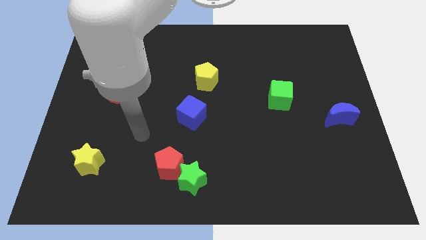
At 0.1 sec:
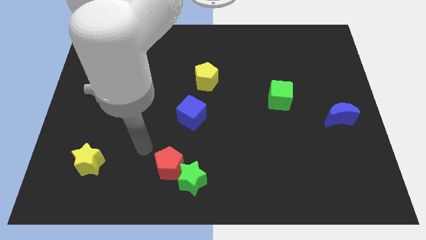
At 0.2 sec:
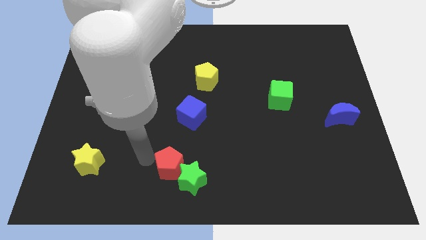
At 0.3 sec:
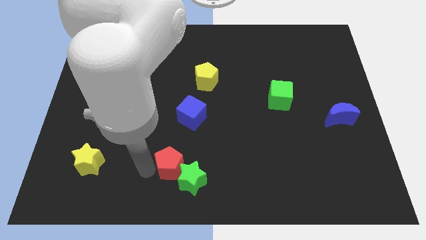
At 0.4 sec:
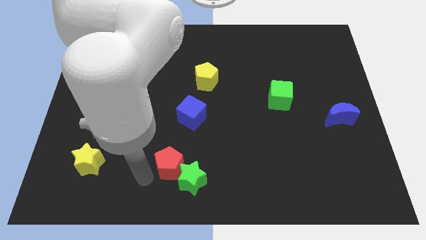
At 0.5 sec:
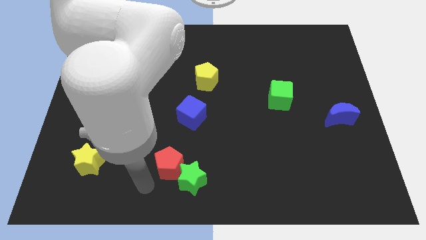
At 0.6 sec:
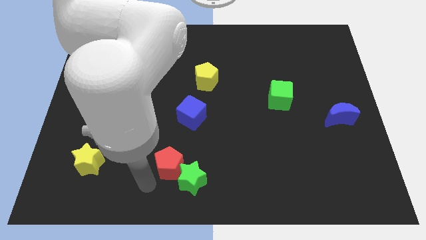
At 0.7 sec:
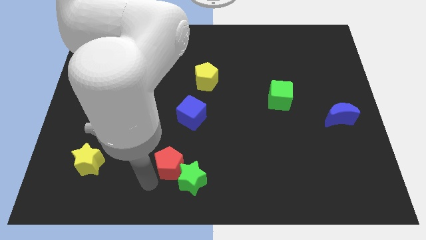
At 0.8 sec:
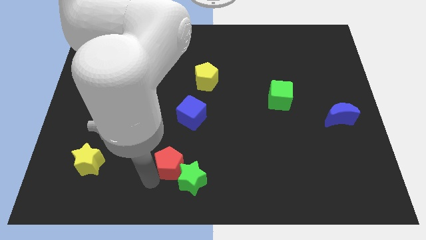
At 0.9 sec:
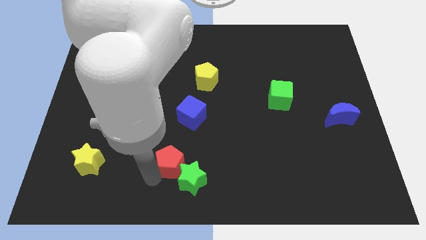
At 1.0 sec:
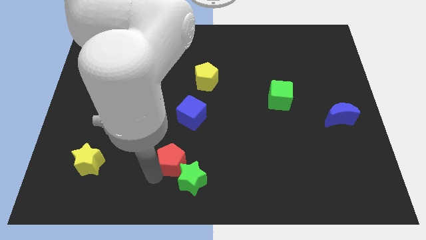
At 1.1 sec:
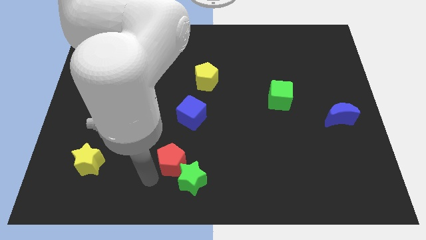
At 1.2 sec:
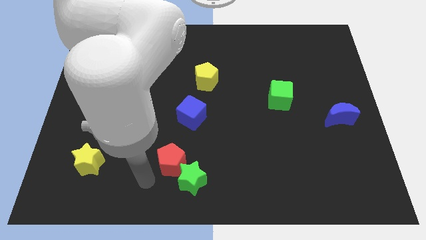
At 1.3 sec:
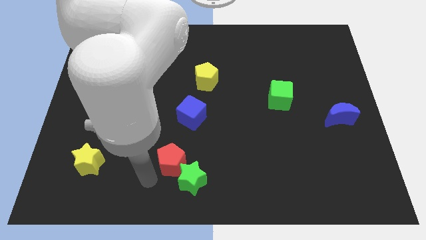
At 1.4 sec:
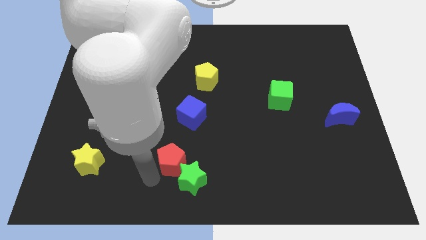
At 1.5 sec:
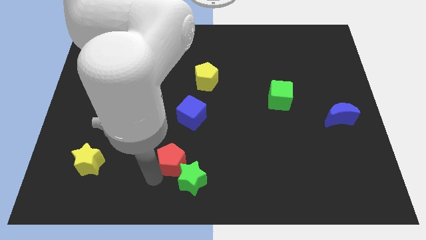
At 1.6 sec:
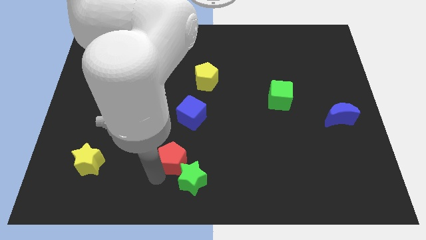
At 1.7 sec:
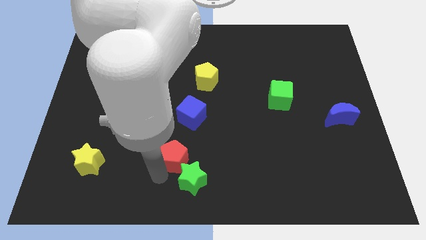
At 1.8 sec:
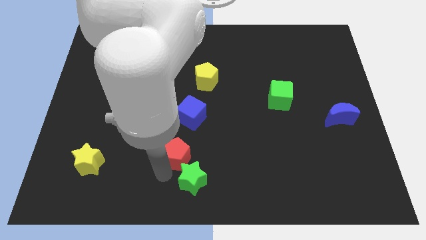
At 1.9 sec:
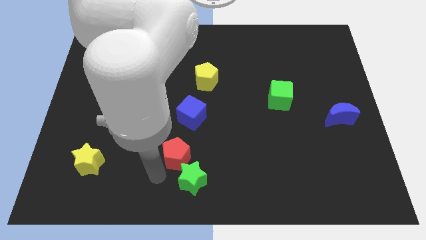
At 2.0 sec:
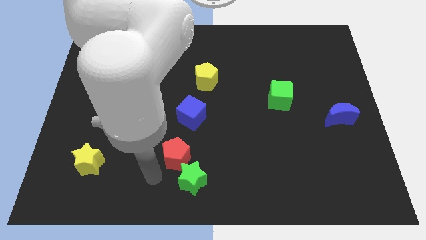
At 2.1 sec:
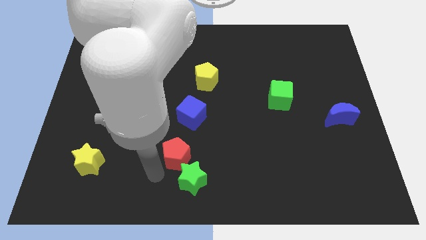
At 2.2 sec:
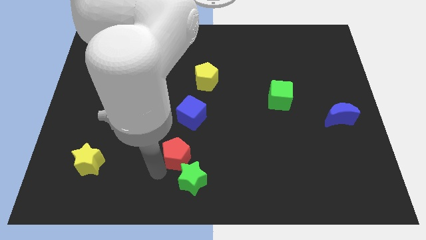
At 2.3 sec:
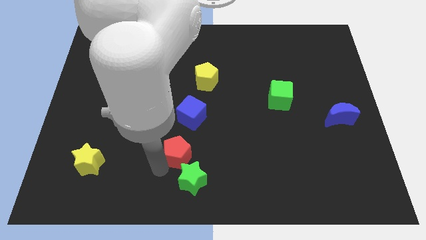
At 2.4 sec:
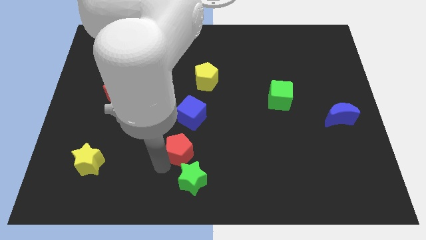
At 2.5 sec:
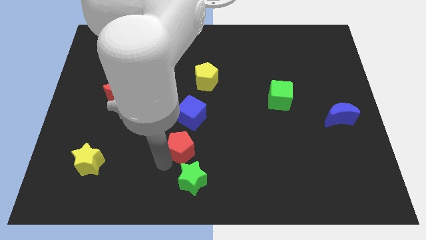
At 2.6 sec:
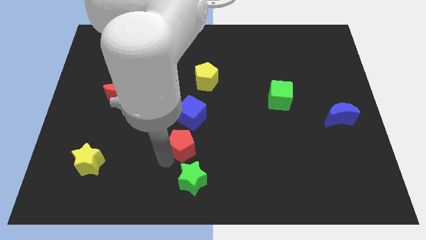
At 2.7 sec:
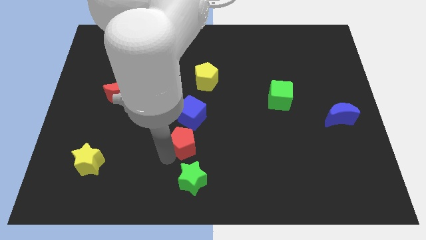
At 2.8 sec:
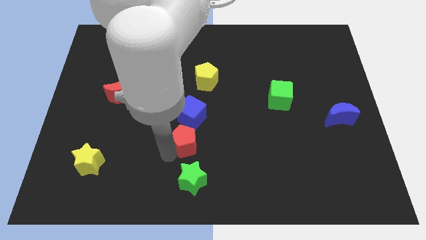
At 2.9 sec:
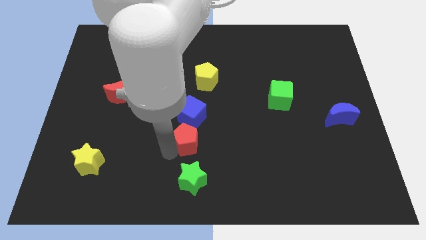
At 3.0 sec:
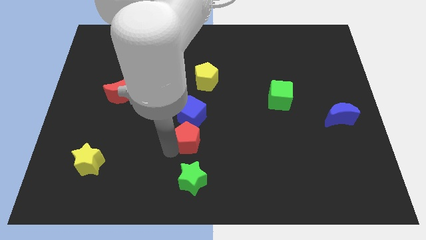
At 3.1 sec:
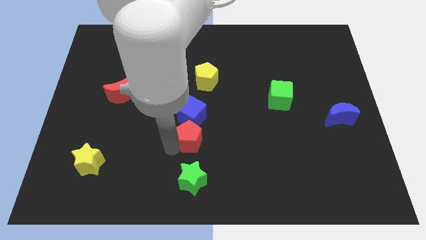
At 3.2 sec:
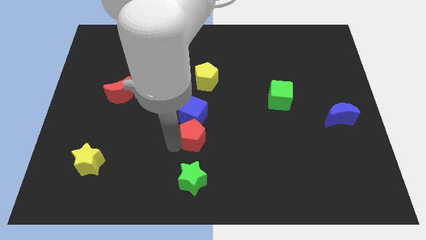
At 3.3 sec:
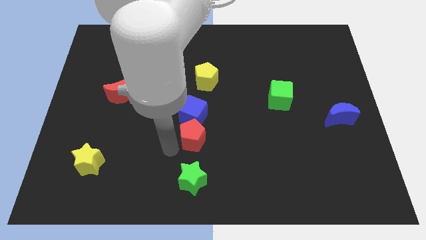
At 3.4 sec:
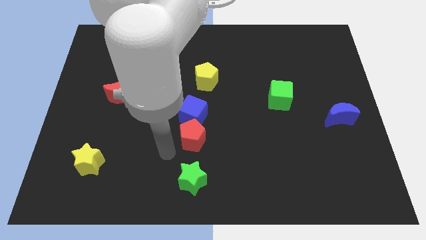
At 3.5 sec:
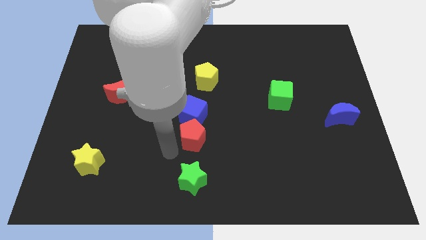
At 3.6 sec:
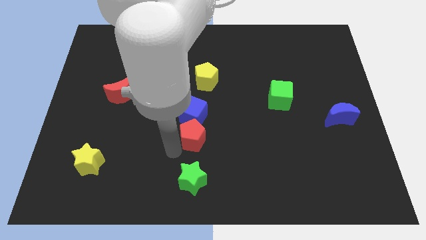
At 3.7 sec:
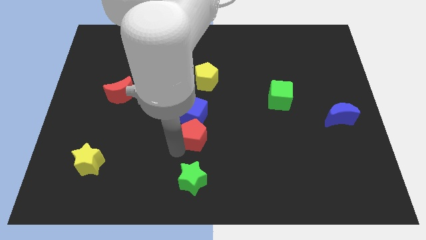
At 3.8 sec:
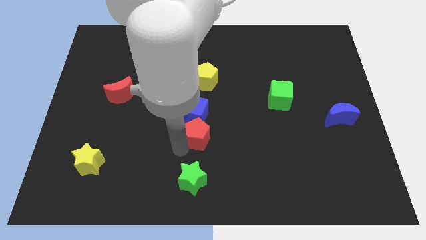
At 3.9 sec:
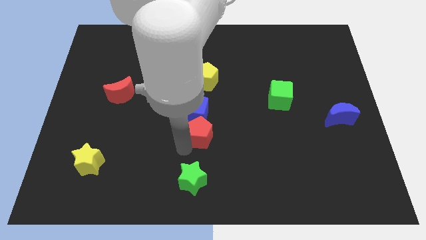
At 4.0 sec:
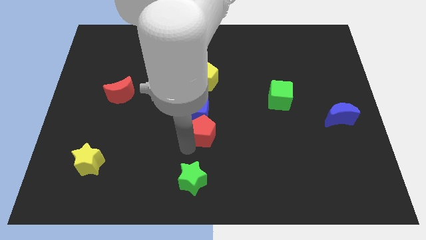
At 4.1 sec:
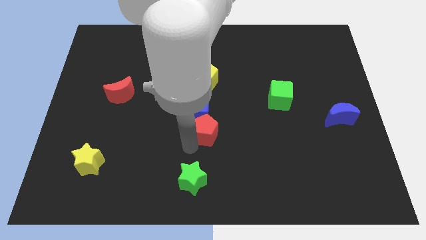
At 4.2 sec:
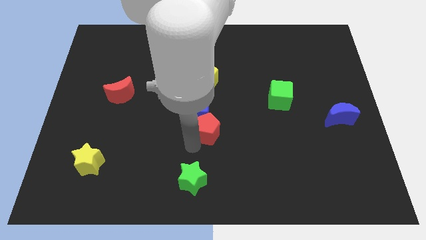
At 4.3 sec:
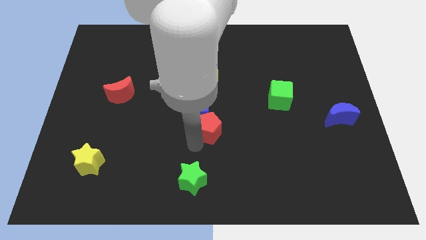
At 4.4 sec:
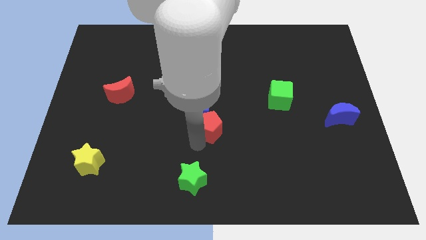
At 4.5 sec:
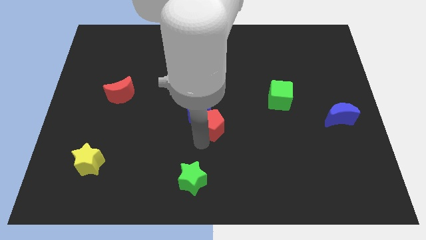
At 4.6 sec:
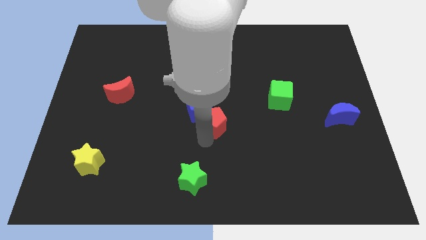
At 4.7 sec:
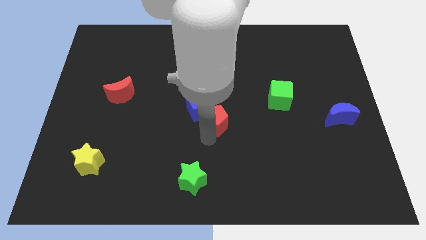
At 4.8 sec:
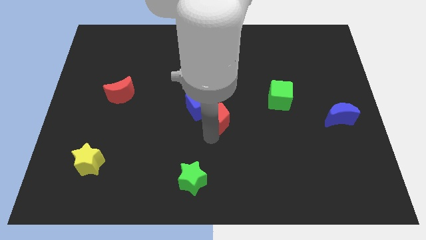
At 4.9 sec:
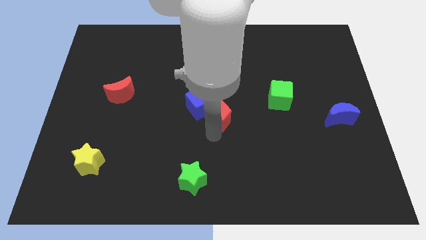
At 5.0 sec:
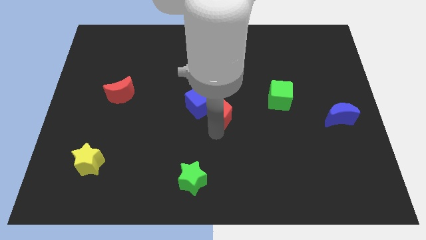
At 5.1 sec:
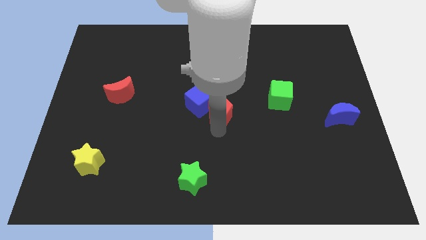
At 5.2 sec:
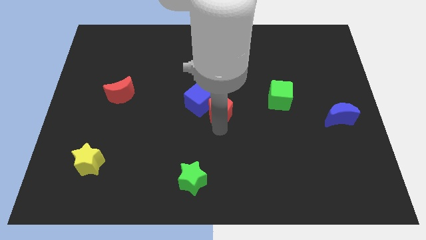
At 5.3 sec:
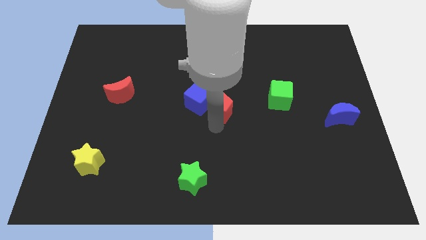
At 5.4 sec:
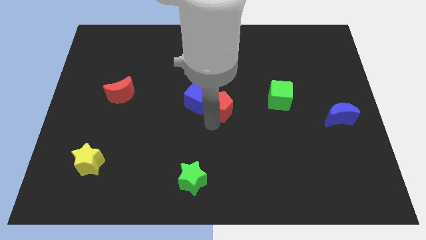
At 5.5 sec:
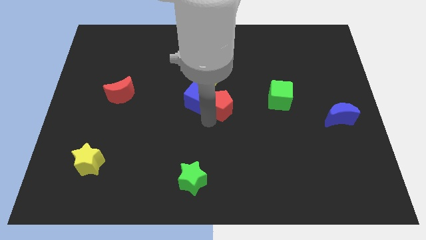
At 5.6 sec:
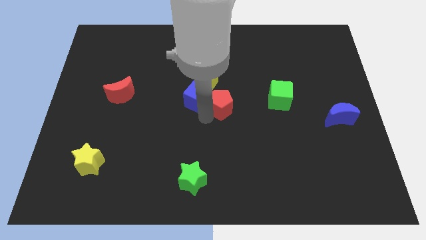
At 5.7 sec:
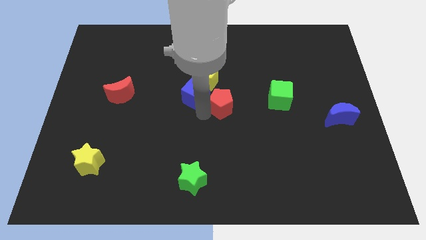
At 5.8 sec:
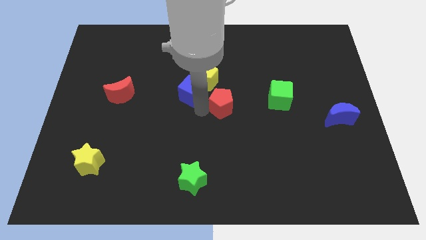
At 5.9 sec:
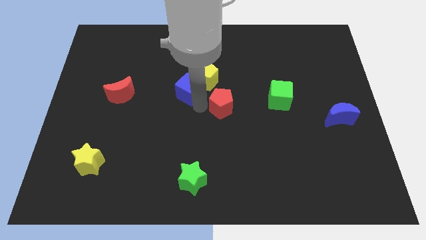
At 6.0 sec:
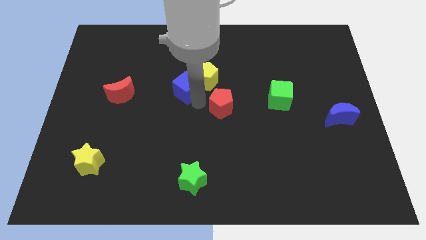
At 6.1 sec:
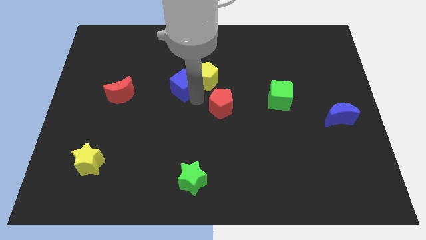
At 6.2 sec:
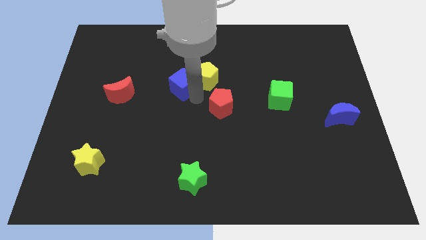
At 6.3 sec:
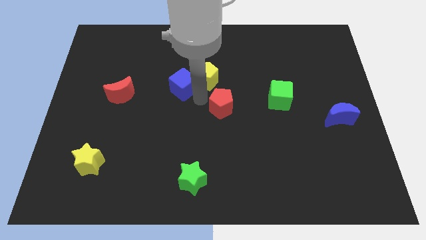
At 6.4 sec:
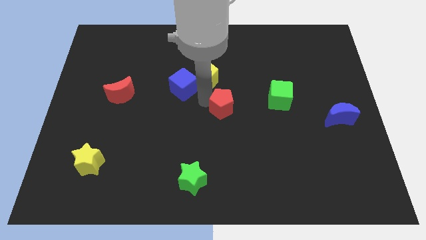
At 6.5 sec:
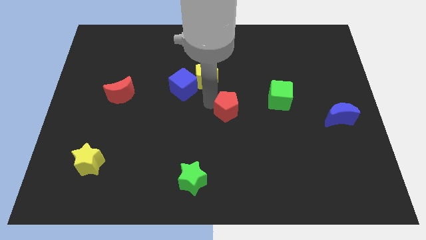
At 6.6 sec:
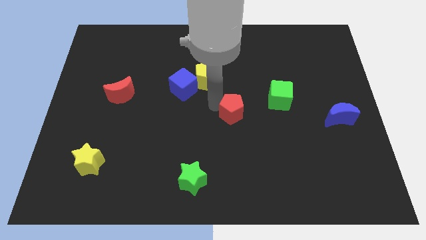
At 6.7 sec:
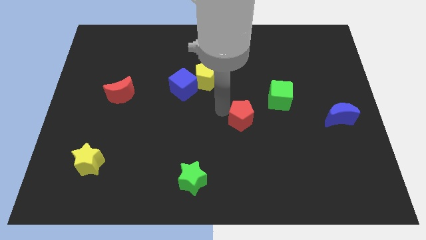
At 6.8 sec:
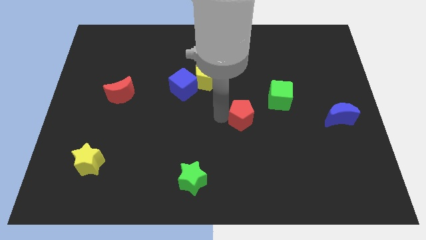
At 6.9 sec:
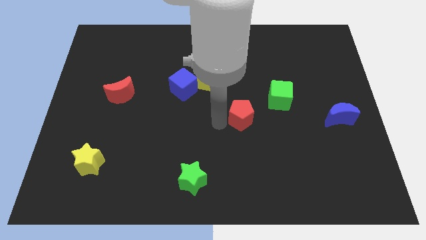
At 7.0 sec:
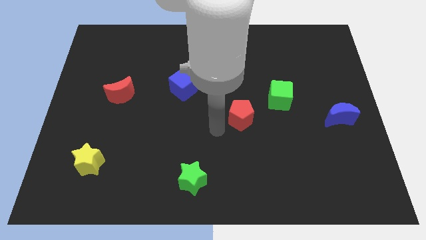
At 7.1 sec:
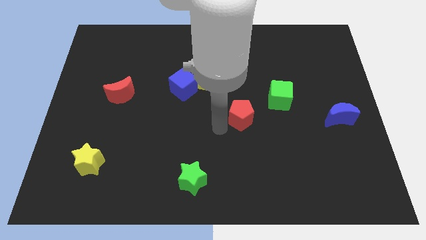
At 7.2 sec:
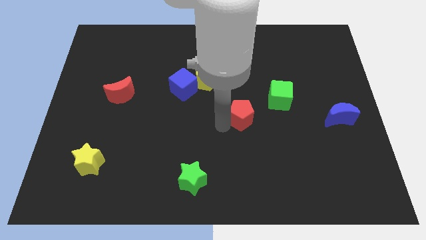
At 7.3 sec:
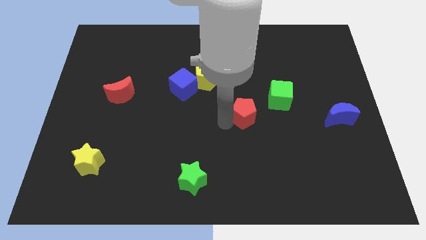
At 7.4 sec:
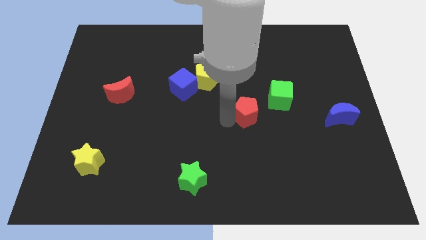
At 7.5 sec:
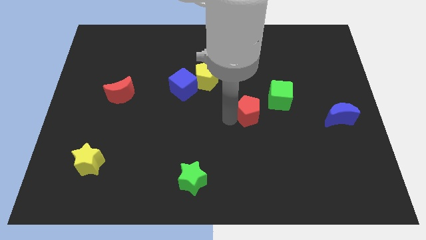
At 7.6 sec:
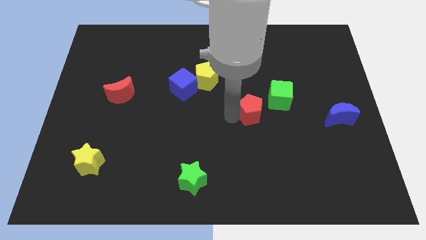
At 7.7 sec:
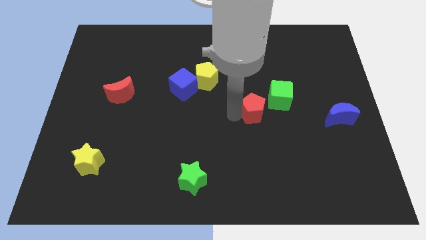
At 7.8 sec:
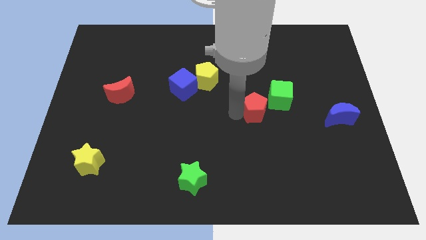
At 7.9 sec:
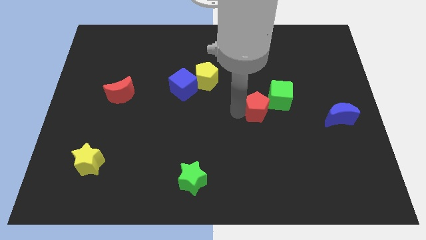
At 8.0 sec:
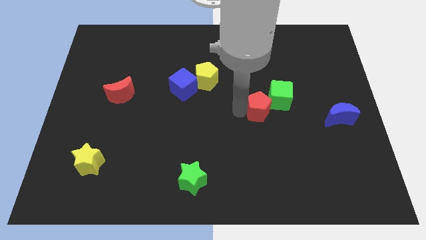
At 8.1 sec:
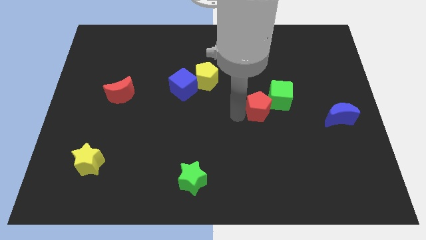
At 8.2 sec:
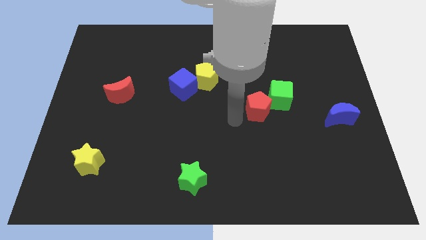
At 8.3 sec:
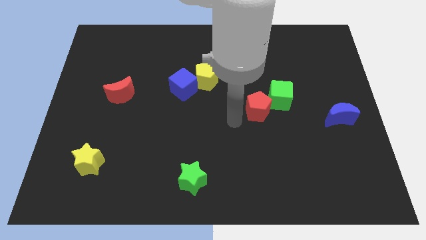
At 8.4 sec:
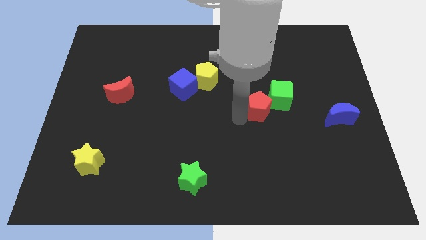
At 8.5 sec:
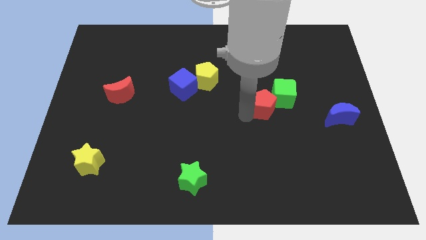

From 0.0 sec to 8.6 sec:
slide the red pentagon to the green cube
